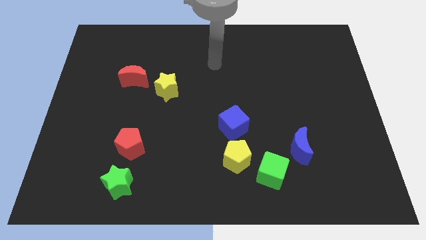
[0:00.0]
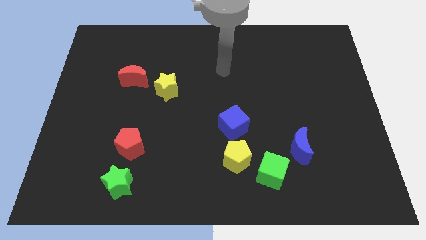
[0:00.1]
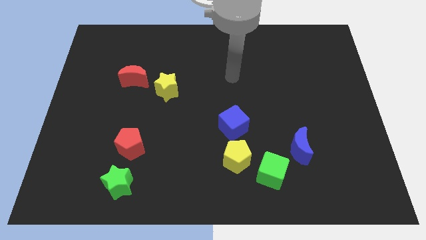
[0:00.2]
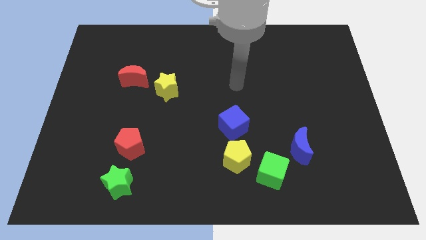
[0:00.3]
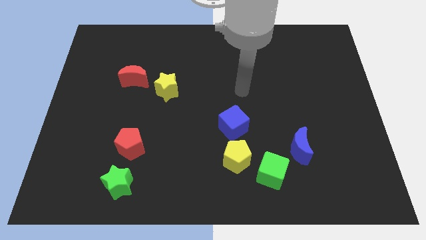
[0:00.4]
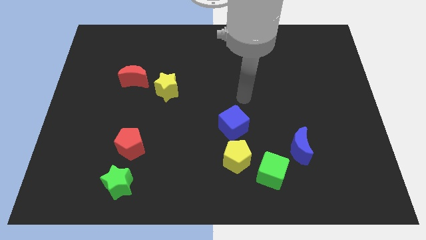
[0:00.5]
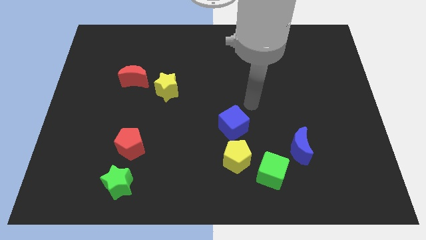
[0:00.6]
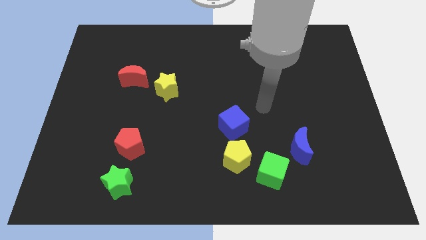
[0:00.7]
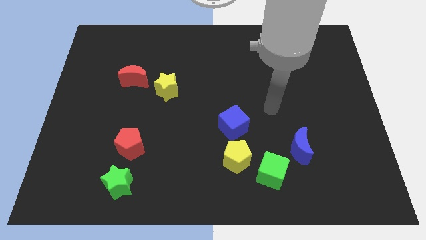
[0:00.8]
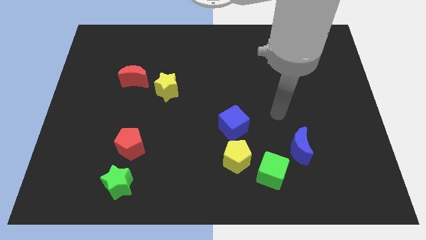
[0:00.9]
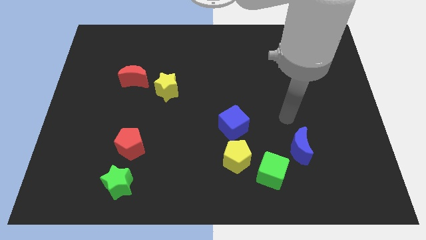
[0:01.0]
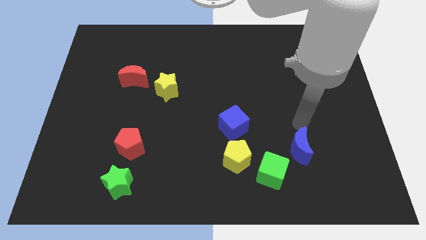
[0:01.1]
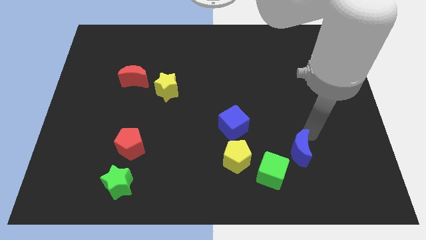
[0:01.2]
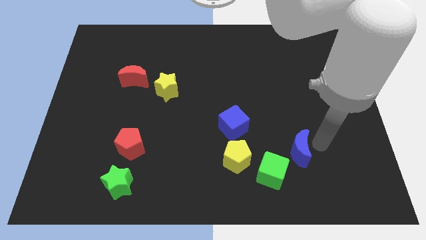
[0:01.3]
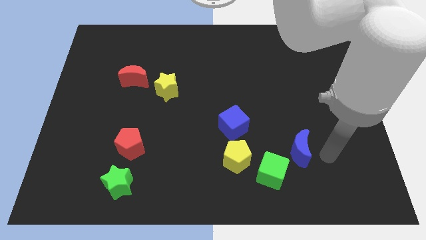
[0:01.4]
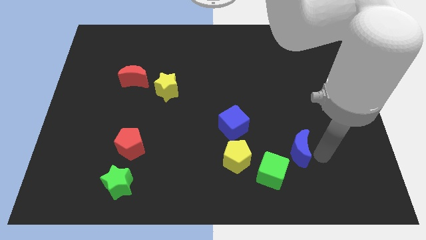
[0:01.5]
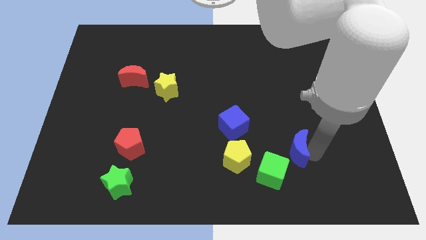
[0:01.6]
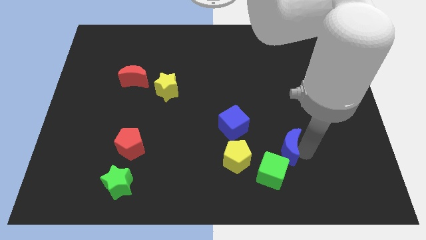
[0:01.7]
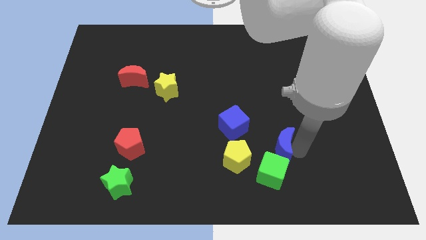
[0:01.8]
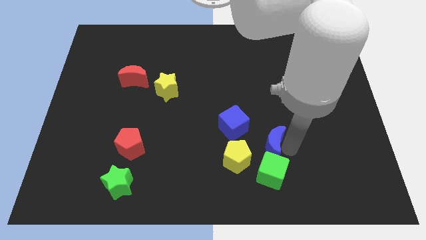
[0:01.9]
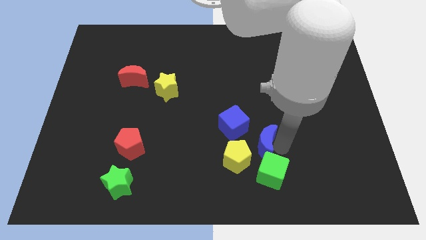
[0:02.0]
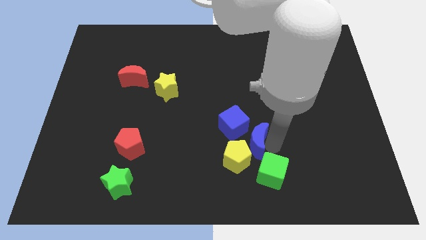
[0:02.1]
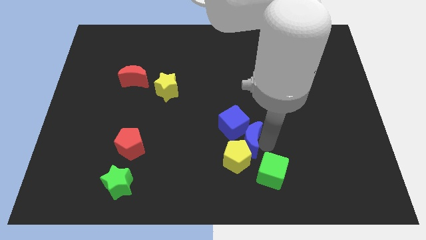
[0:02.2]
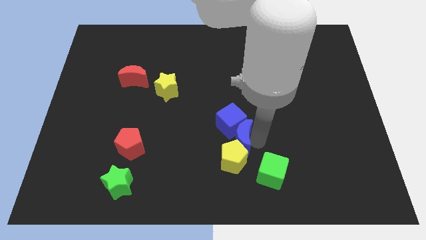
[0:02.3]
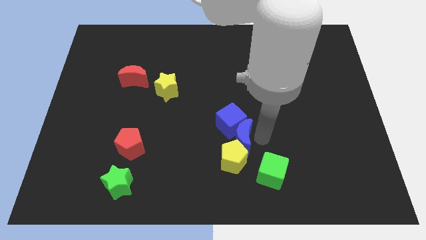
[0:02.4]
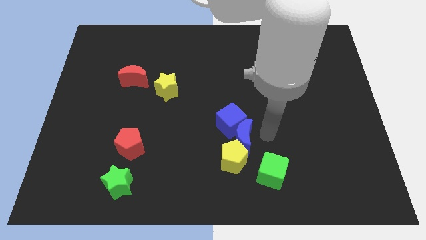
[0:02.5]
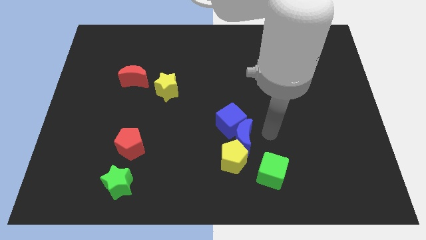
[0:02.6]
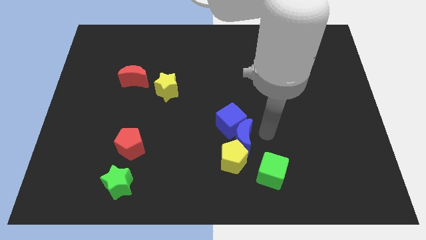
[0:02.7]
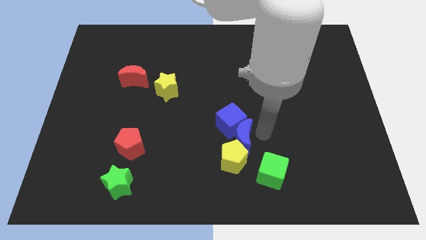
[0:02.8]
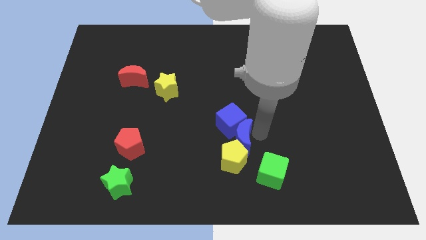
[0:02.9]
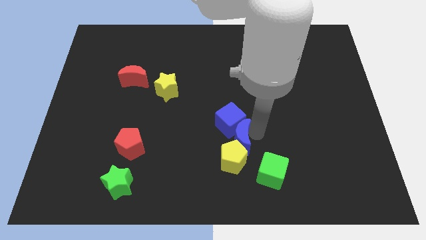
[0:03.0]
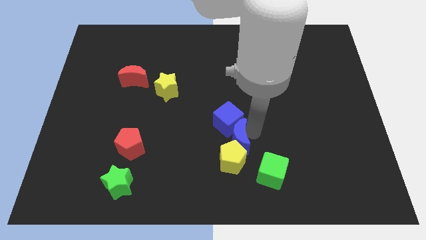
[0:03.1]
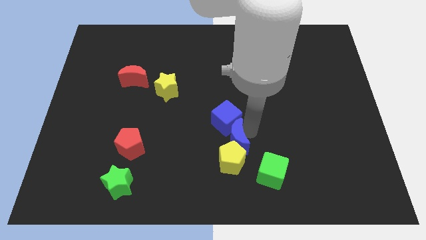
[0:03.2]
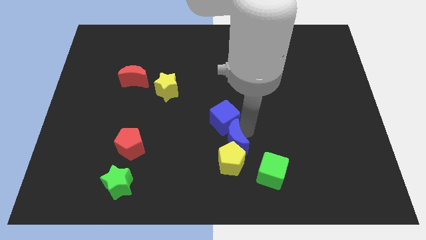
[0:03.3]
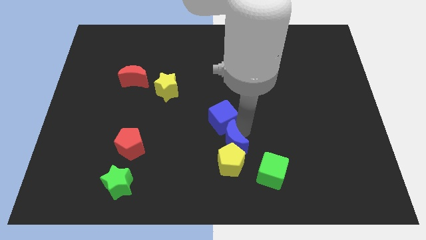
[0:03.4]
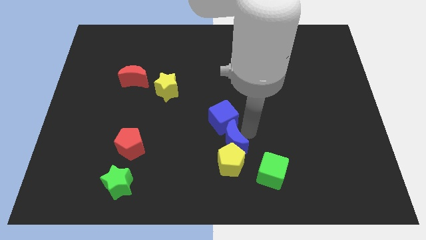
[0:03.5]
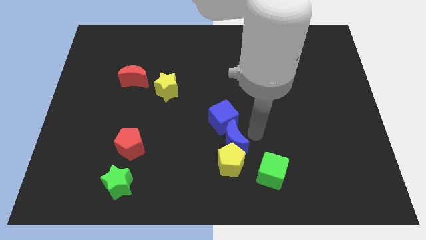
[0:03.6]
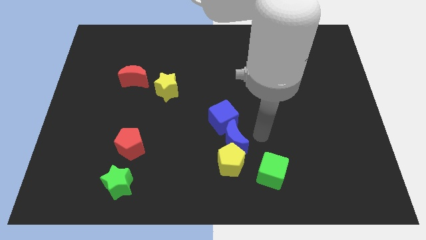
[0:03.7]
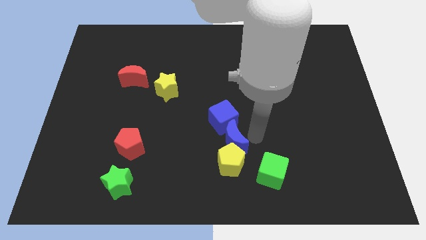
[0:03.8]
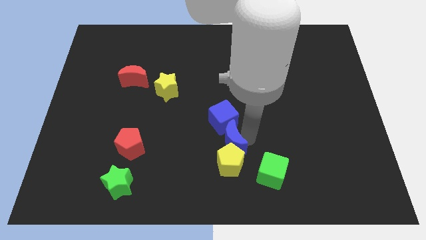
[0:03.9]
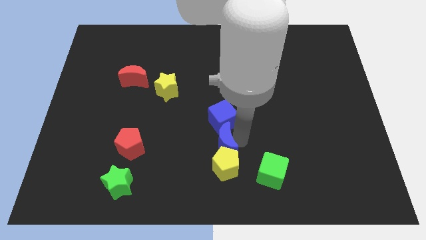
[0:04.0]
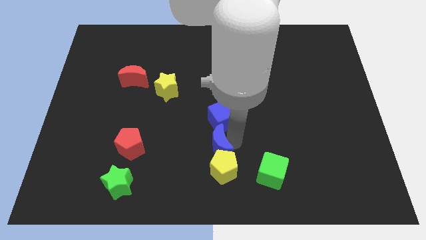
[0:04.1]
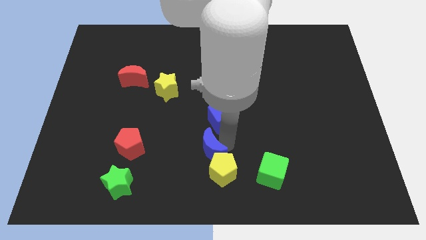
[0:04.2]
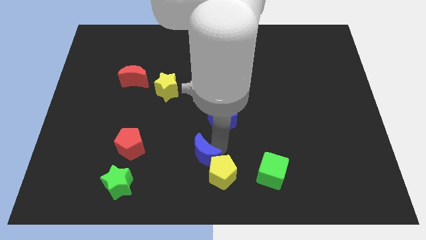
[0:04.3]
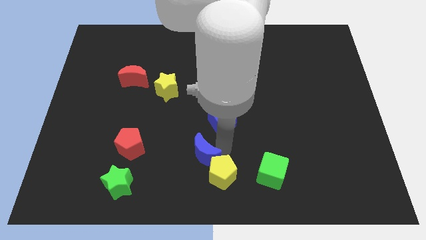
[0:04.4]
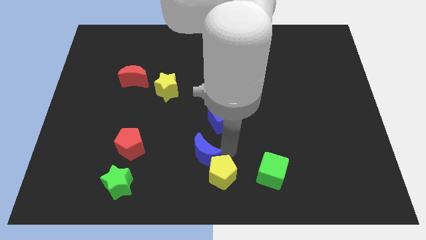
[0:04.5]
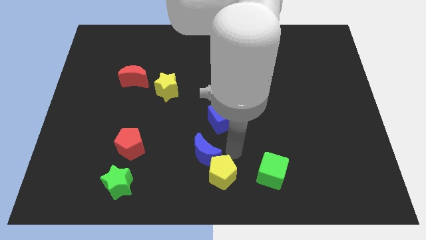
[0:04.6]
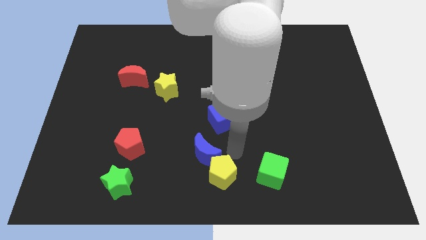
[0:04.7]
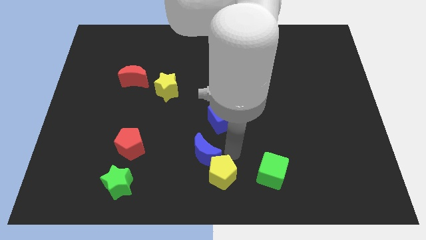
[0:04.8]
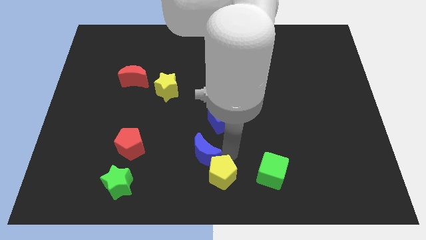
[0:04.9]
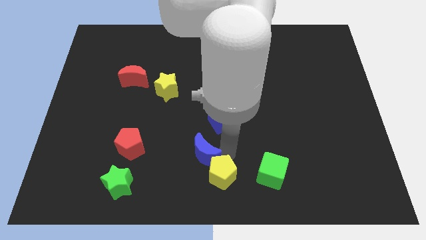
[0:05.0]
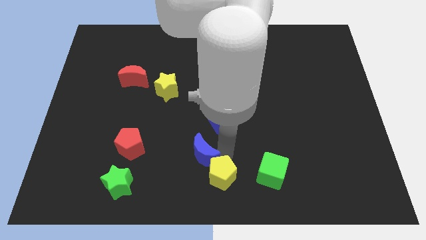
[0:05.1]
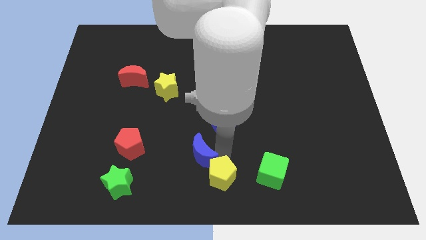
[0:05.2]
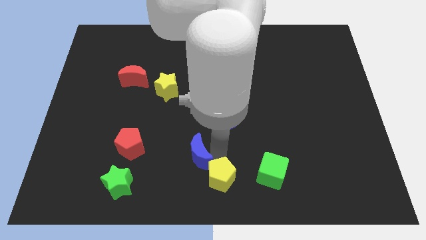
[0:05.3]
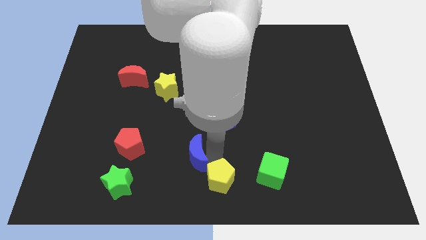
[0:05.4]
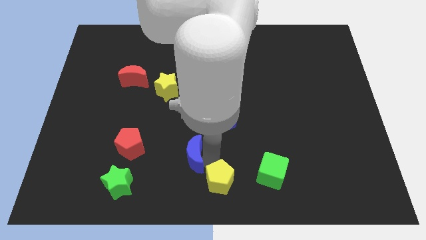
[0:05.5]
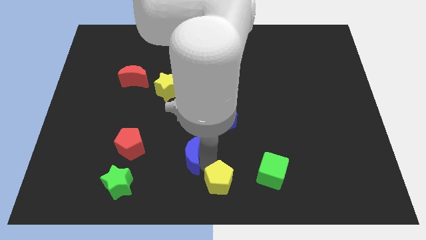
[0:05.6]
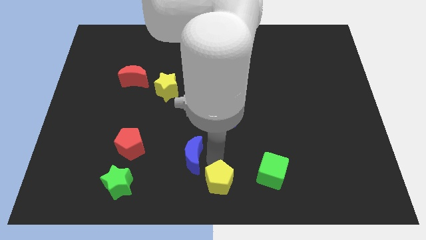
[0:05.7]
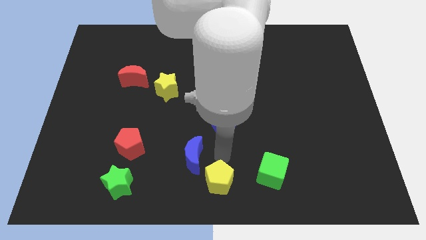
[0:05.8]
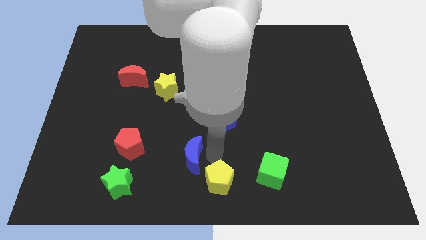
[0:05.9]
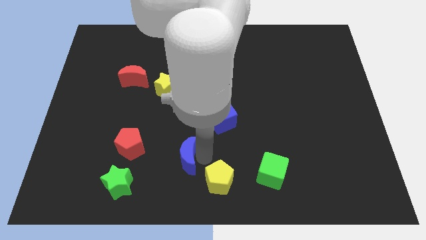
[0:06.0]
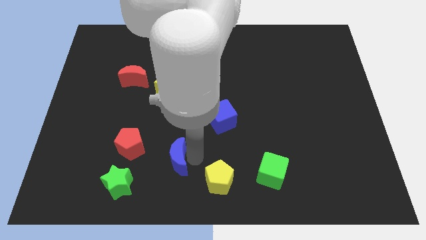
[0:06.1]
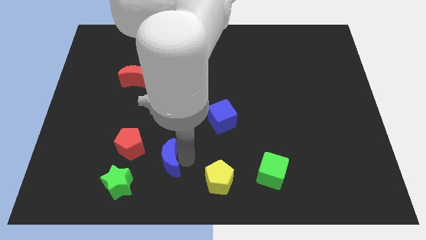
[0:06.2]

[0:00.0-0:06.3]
slide the blue moon to the top right side of the green star

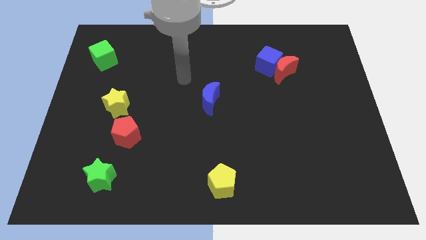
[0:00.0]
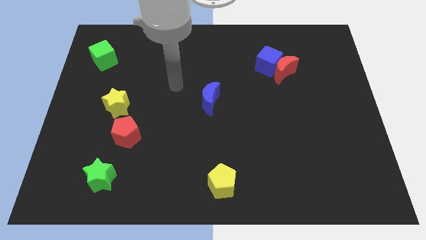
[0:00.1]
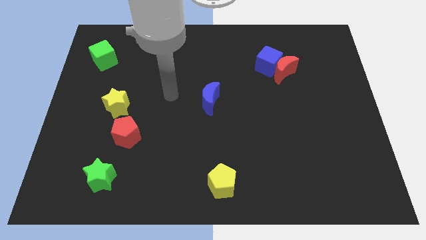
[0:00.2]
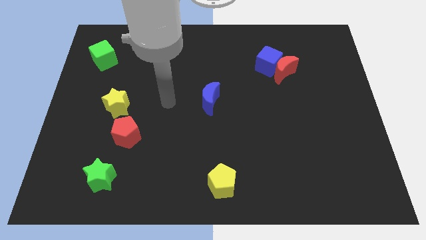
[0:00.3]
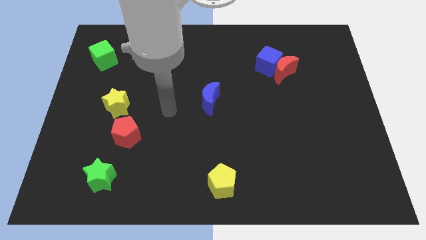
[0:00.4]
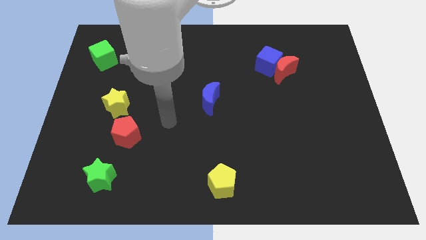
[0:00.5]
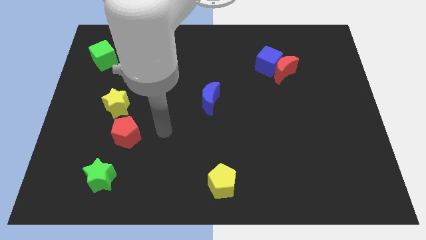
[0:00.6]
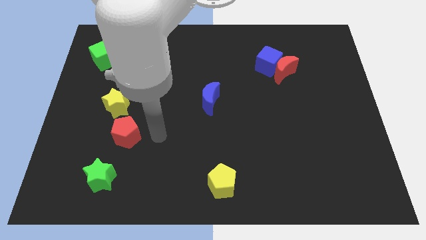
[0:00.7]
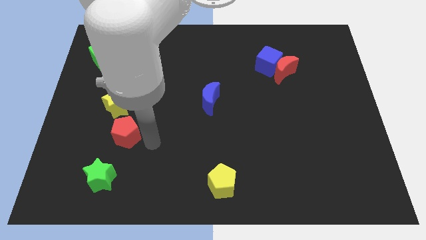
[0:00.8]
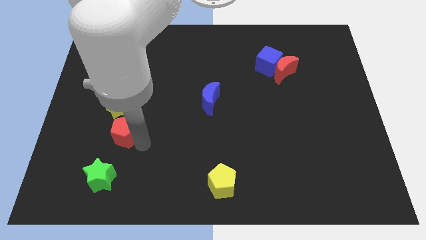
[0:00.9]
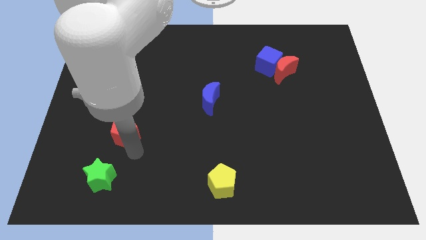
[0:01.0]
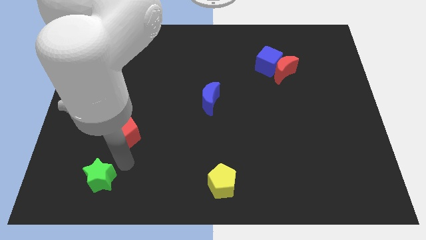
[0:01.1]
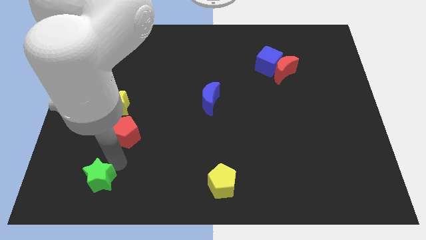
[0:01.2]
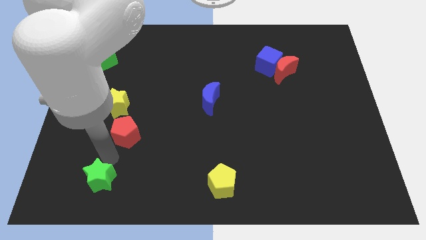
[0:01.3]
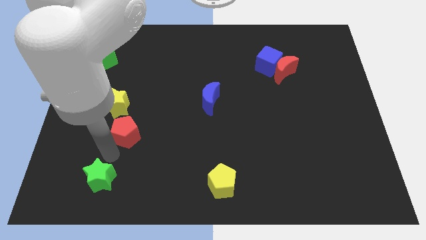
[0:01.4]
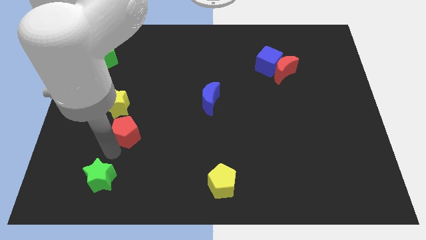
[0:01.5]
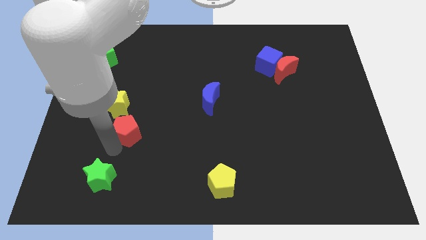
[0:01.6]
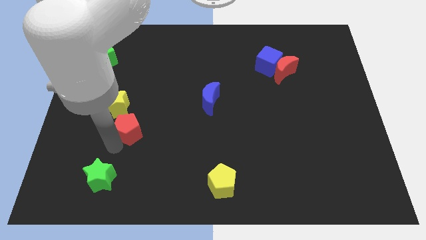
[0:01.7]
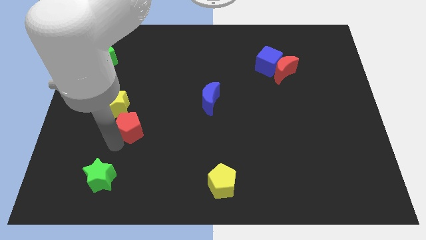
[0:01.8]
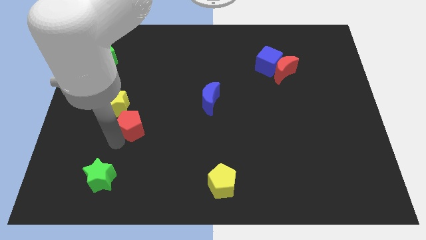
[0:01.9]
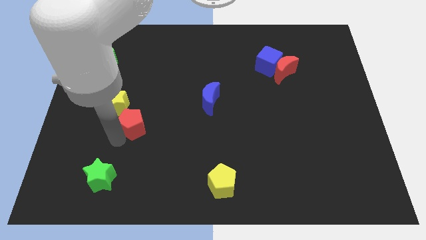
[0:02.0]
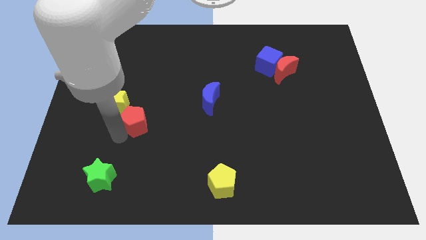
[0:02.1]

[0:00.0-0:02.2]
move the red pentagon to the right of the yellow star
